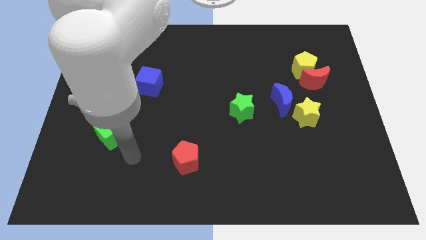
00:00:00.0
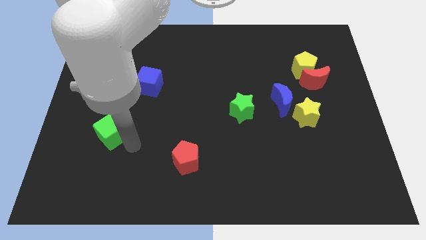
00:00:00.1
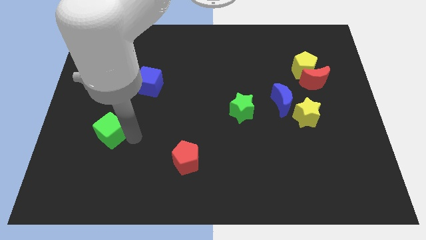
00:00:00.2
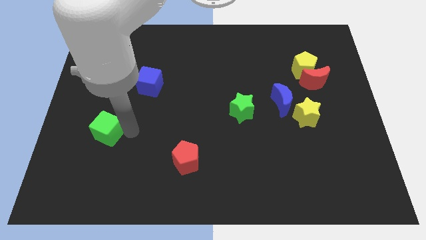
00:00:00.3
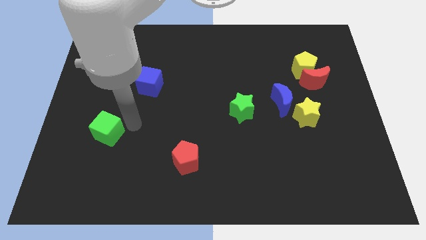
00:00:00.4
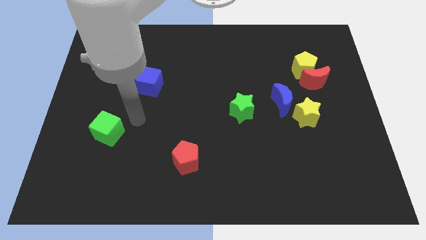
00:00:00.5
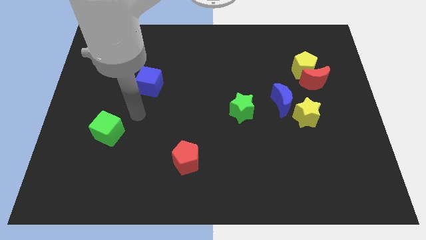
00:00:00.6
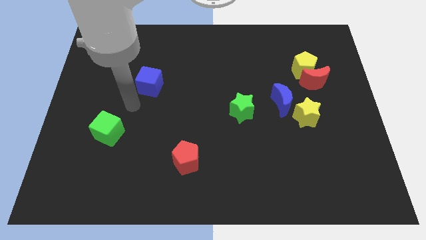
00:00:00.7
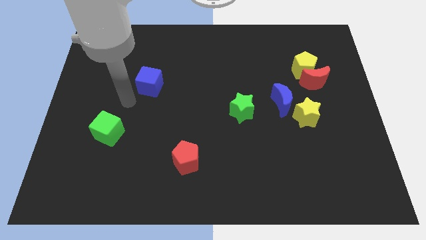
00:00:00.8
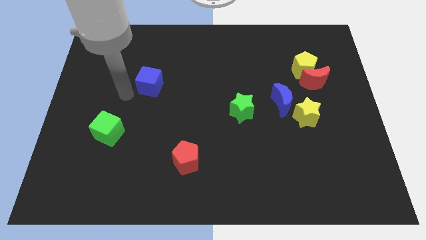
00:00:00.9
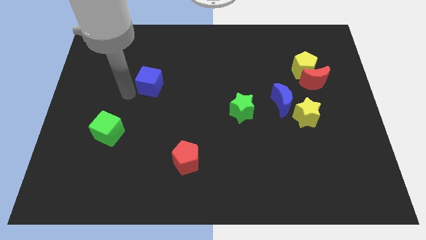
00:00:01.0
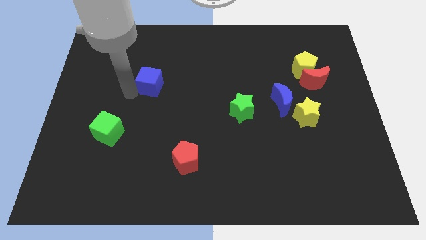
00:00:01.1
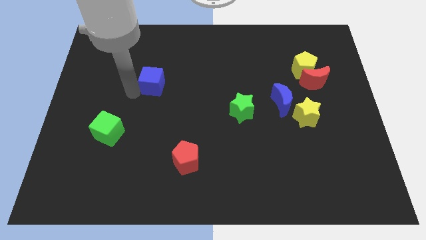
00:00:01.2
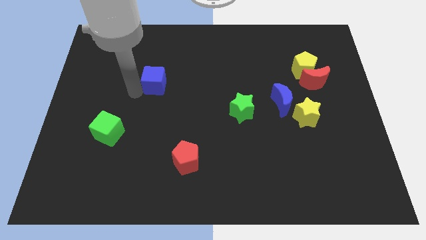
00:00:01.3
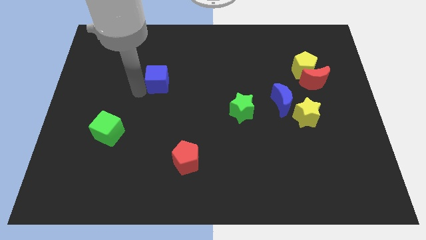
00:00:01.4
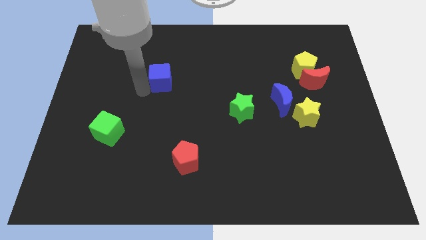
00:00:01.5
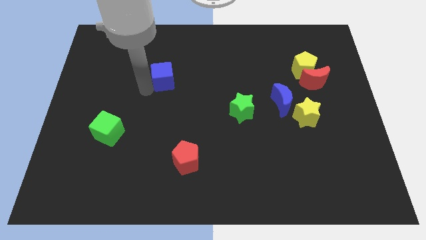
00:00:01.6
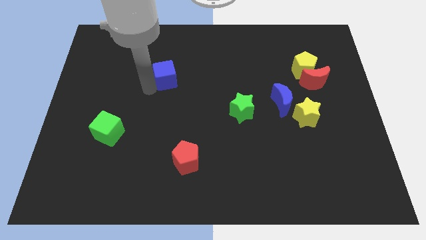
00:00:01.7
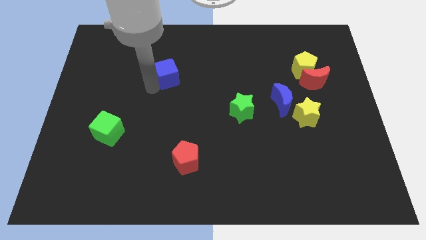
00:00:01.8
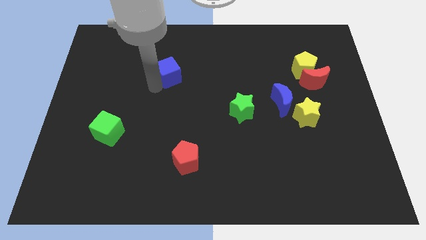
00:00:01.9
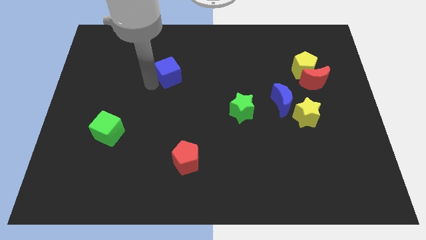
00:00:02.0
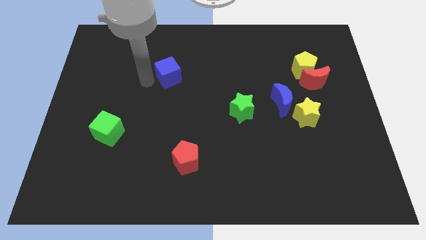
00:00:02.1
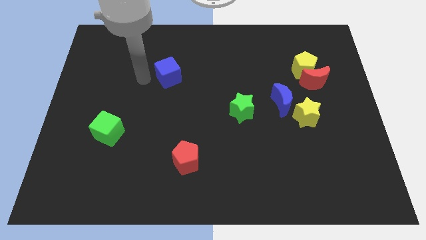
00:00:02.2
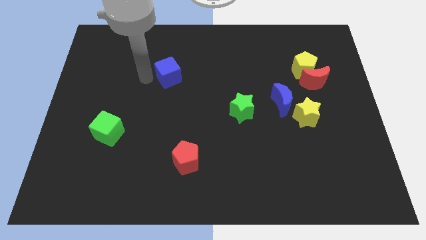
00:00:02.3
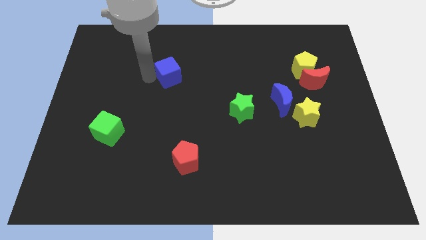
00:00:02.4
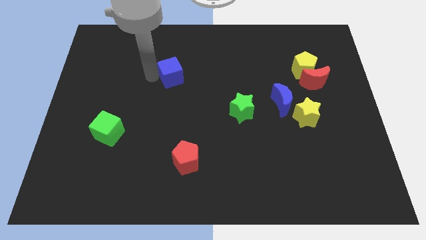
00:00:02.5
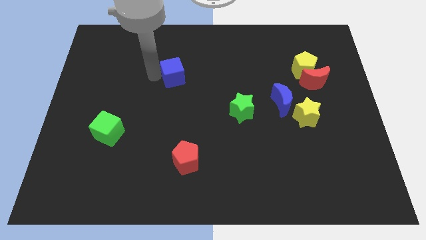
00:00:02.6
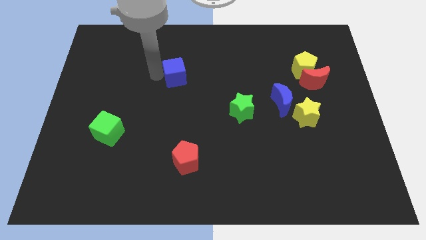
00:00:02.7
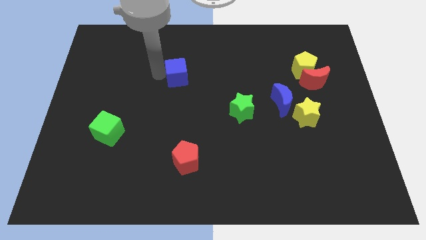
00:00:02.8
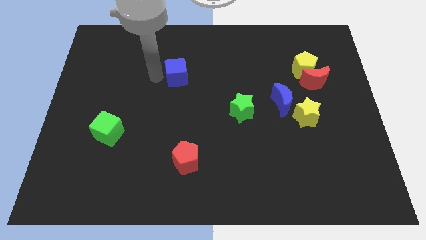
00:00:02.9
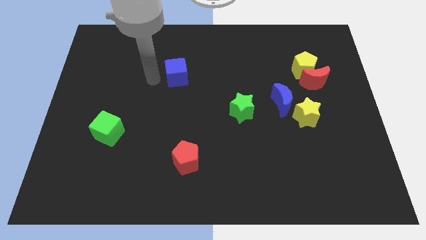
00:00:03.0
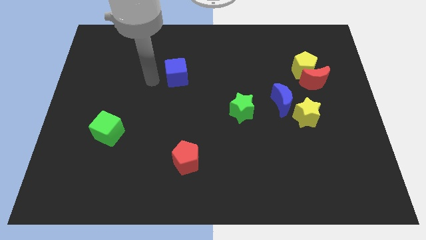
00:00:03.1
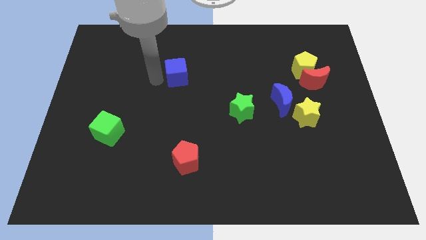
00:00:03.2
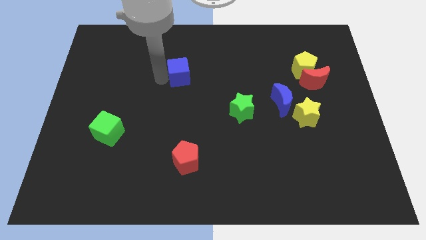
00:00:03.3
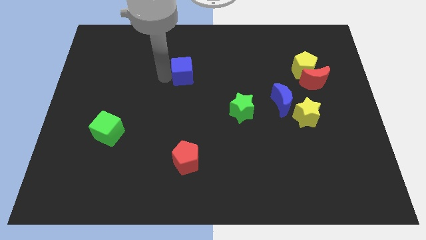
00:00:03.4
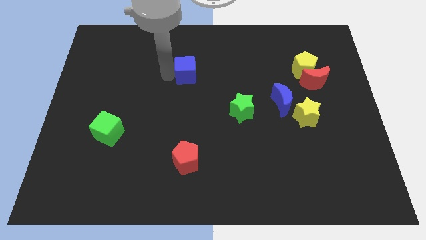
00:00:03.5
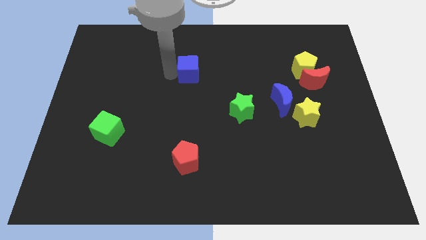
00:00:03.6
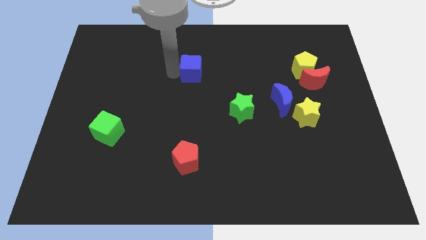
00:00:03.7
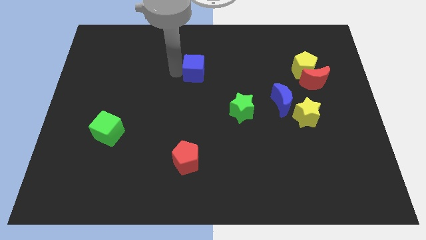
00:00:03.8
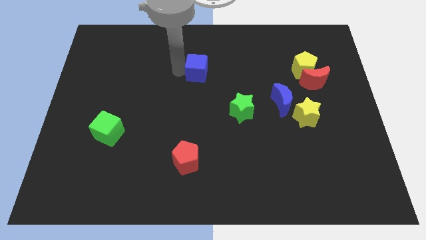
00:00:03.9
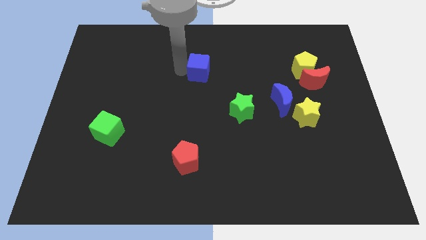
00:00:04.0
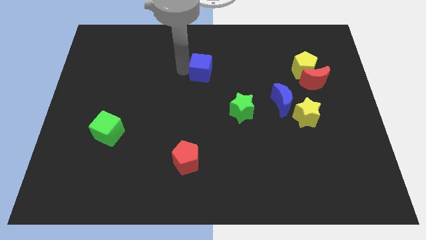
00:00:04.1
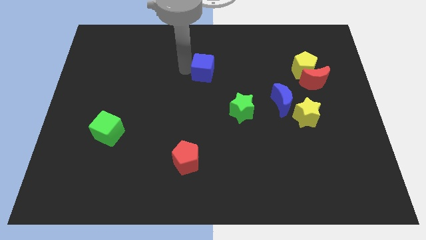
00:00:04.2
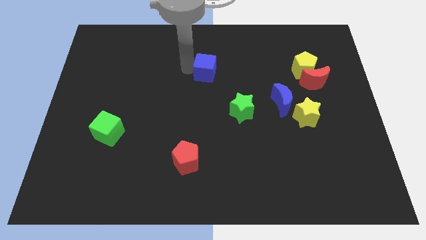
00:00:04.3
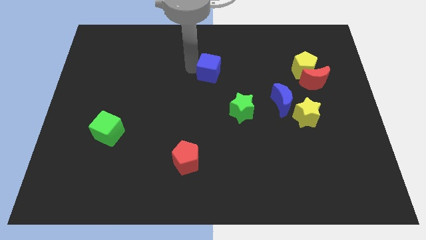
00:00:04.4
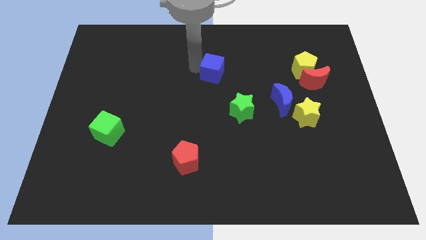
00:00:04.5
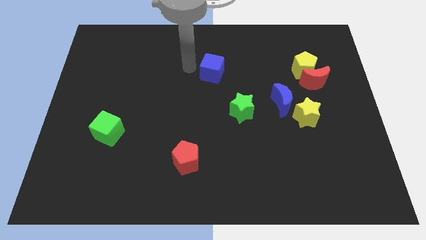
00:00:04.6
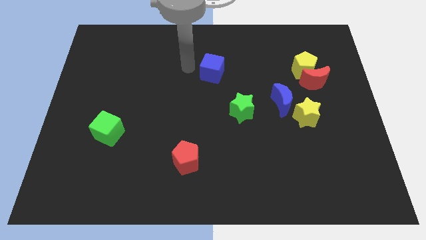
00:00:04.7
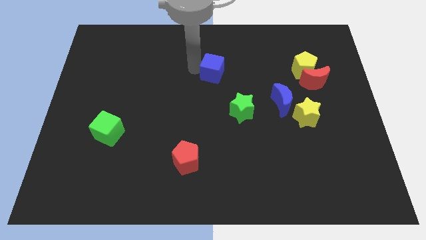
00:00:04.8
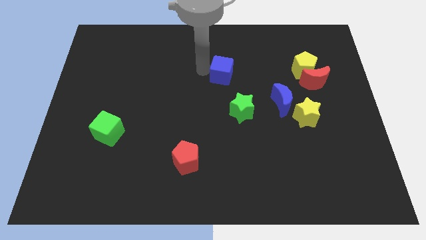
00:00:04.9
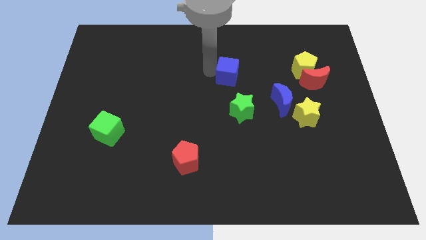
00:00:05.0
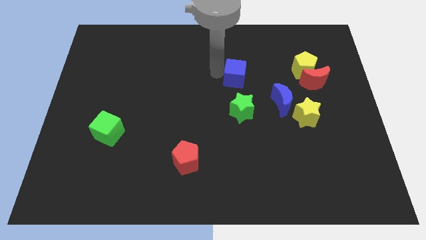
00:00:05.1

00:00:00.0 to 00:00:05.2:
slide the blue cube to the right

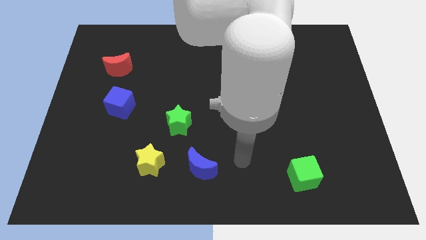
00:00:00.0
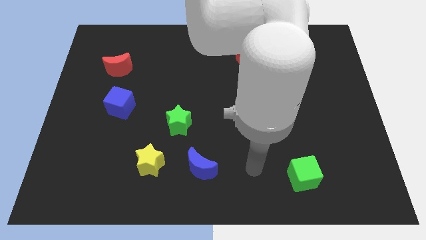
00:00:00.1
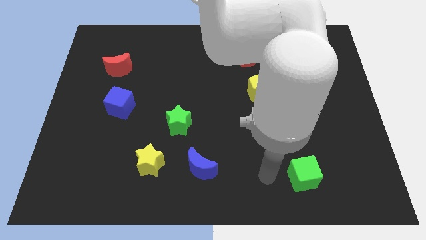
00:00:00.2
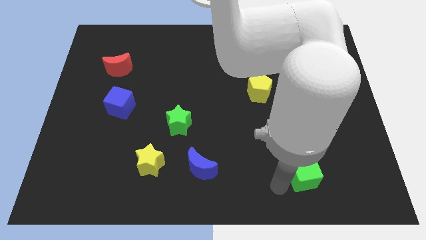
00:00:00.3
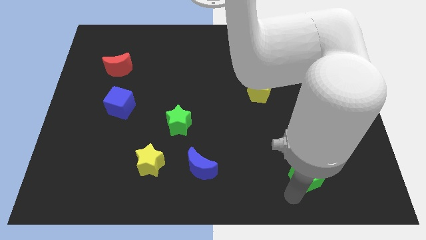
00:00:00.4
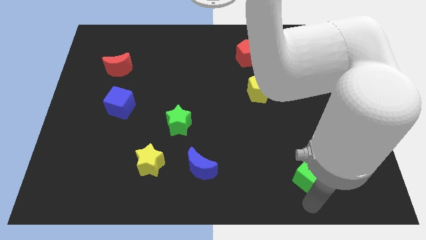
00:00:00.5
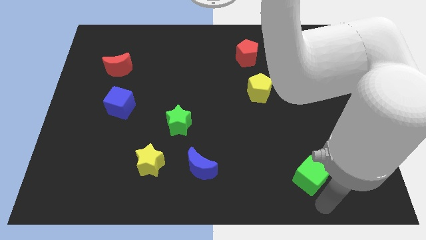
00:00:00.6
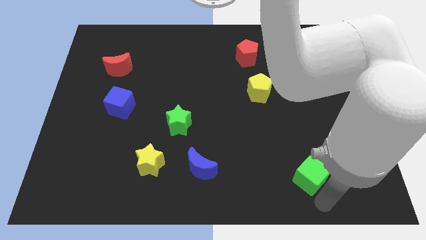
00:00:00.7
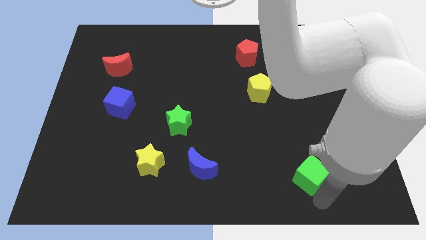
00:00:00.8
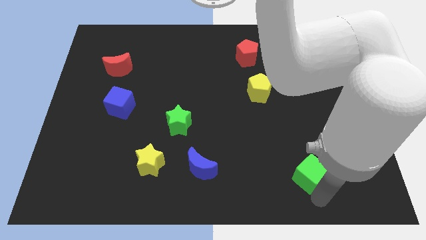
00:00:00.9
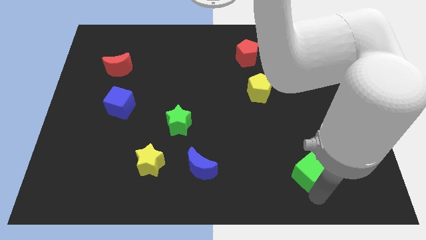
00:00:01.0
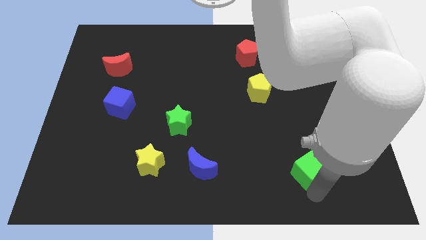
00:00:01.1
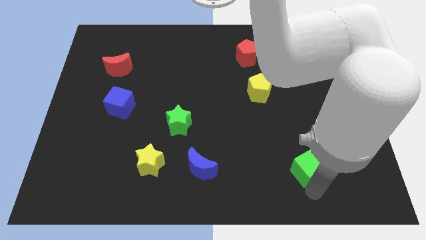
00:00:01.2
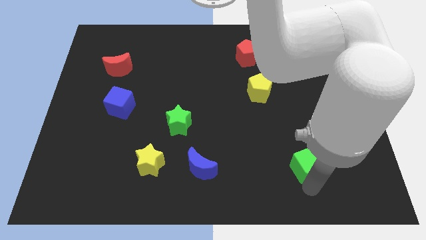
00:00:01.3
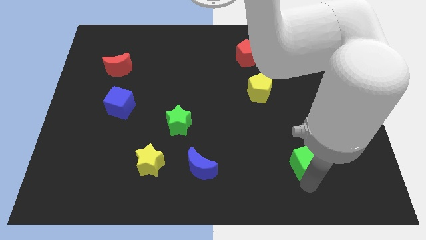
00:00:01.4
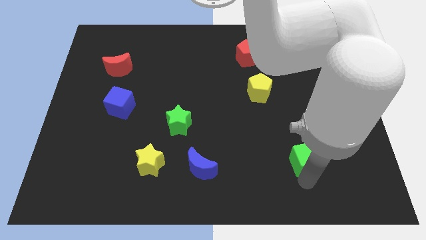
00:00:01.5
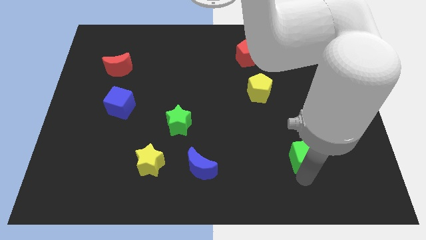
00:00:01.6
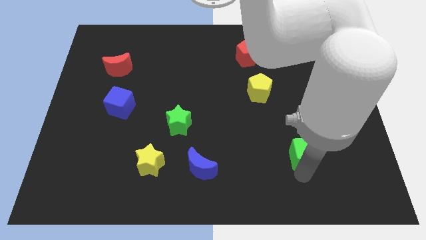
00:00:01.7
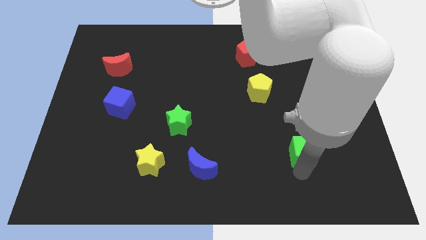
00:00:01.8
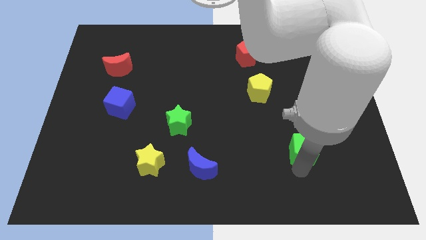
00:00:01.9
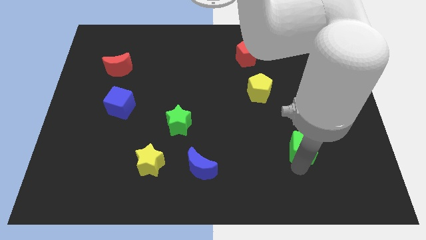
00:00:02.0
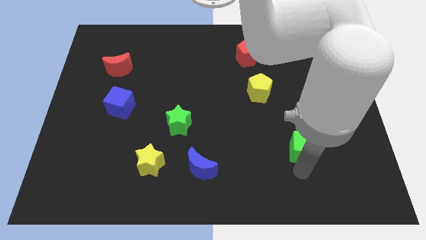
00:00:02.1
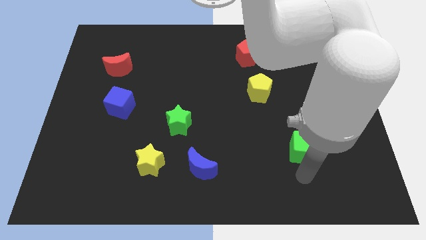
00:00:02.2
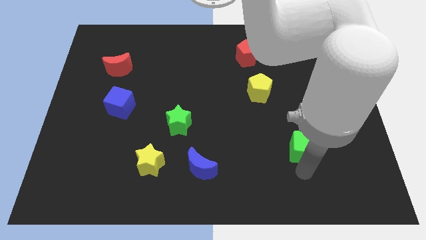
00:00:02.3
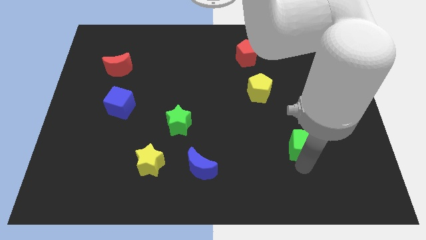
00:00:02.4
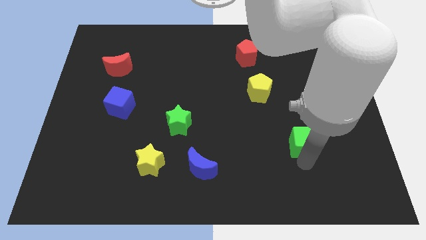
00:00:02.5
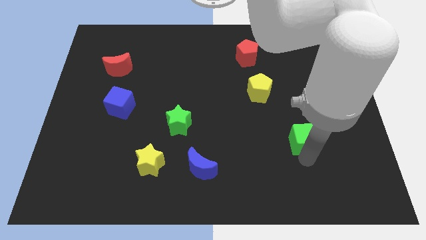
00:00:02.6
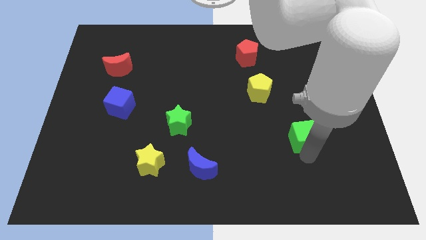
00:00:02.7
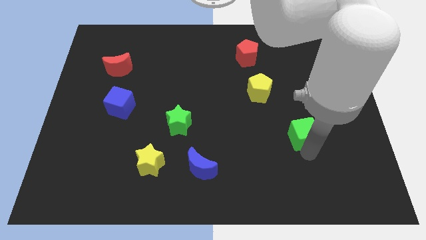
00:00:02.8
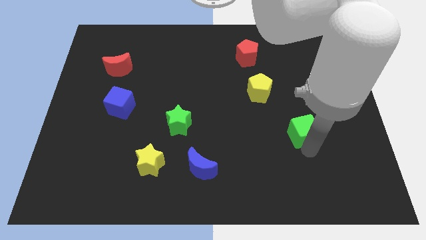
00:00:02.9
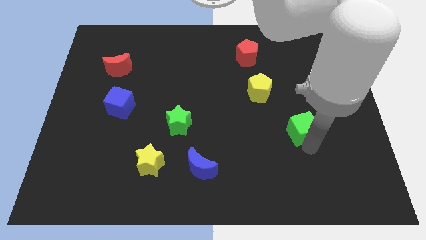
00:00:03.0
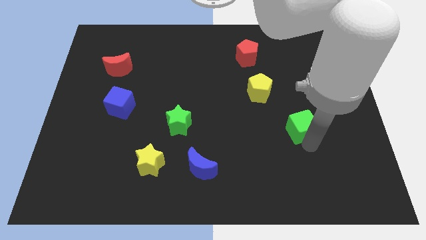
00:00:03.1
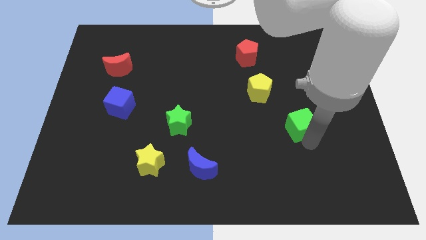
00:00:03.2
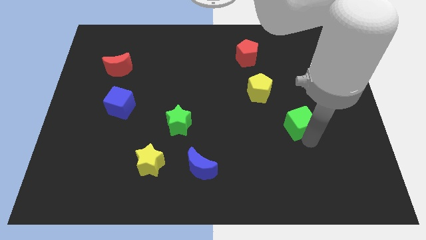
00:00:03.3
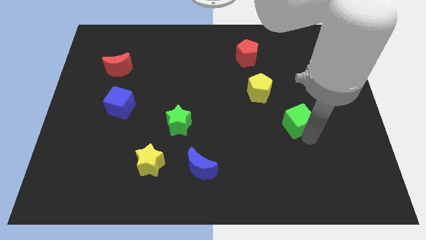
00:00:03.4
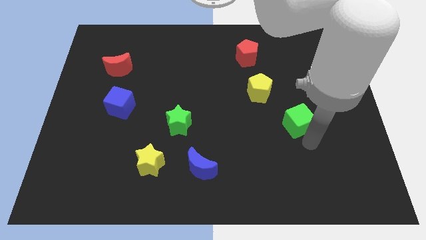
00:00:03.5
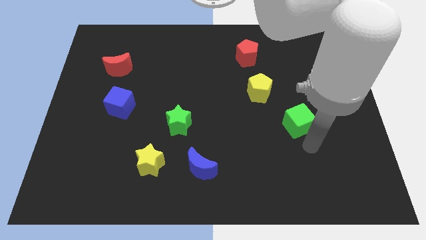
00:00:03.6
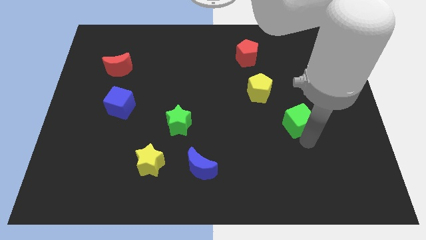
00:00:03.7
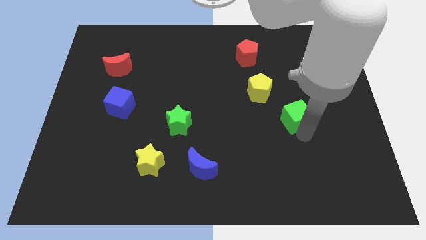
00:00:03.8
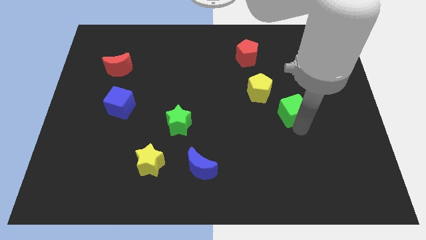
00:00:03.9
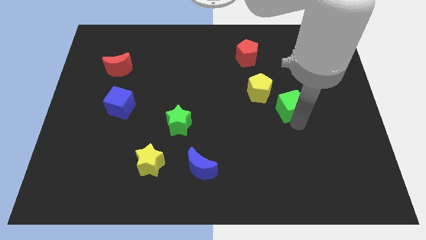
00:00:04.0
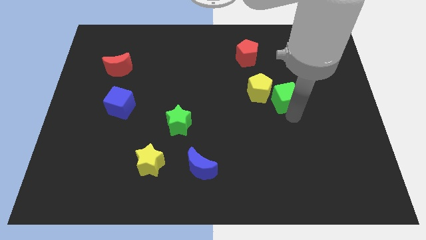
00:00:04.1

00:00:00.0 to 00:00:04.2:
move the green cube upwards
